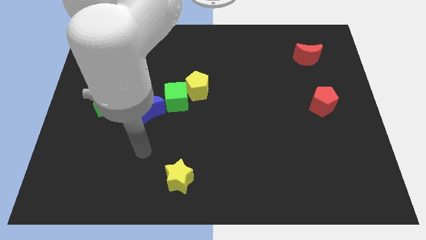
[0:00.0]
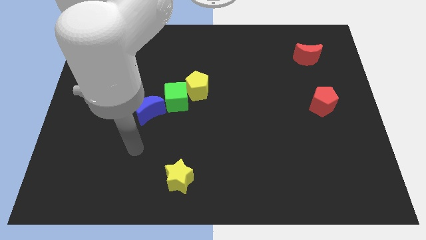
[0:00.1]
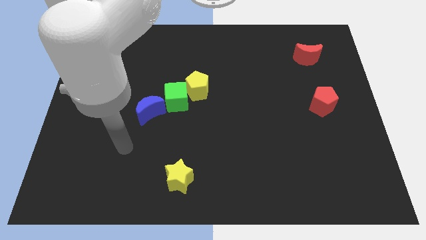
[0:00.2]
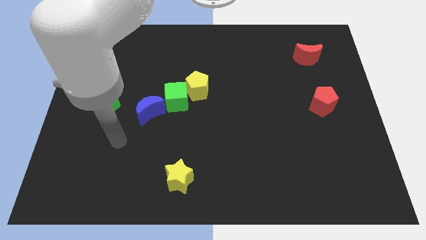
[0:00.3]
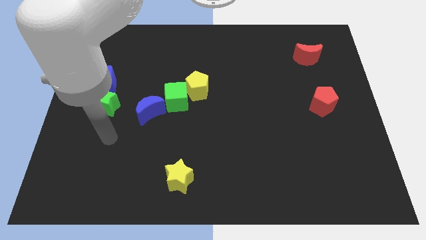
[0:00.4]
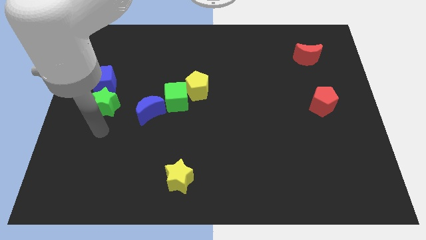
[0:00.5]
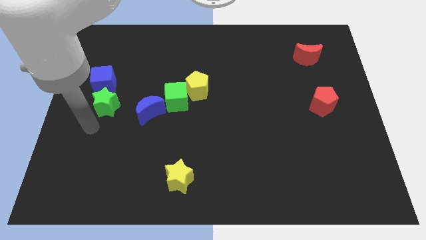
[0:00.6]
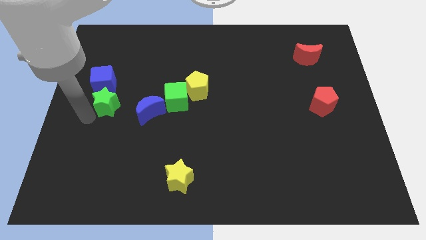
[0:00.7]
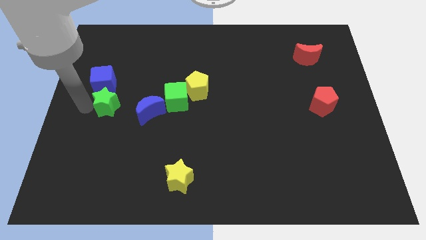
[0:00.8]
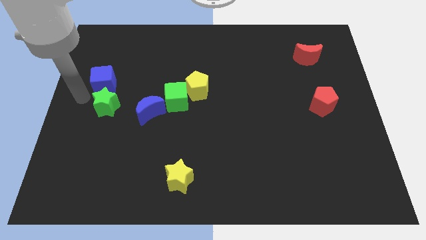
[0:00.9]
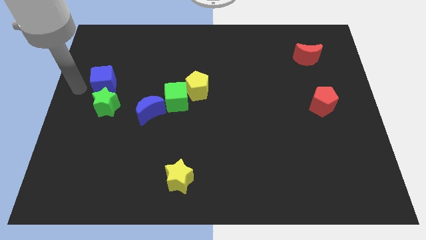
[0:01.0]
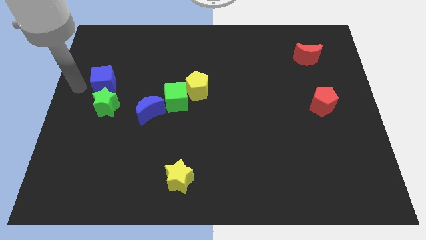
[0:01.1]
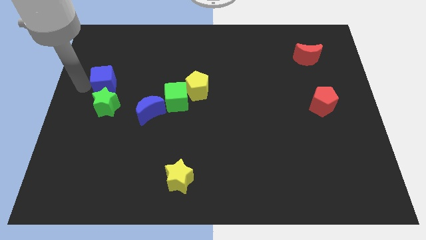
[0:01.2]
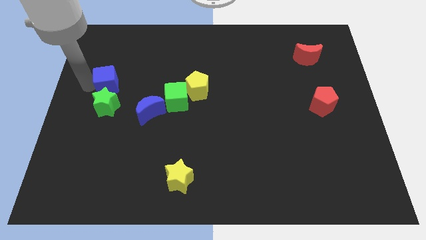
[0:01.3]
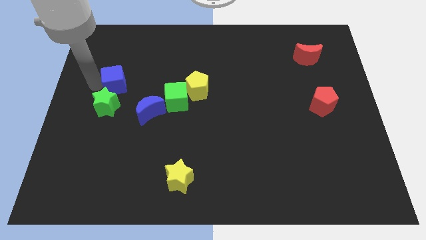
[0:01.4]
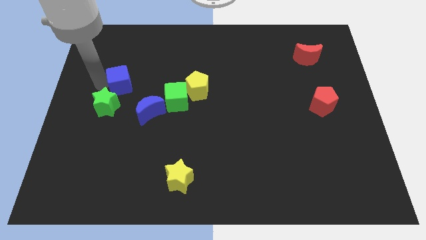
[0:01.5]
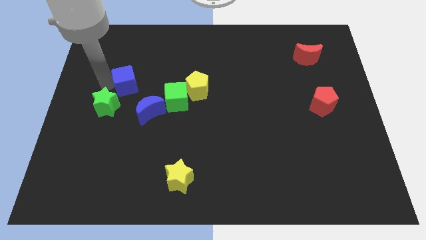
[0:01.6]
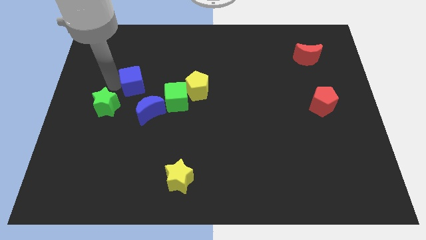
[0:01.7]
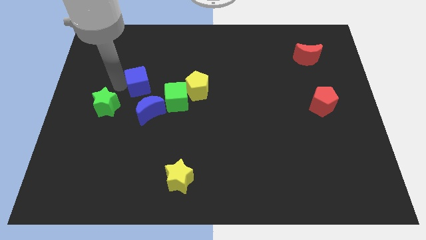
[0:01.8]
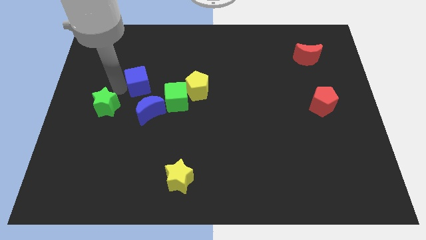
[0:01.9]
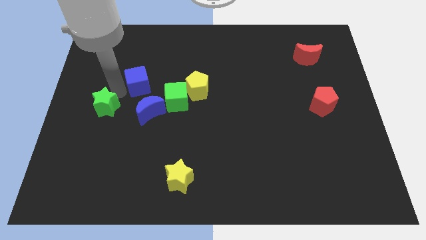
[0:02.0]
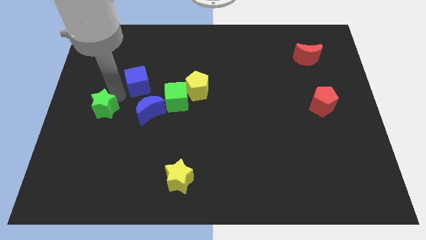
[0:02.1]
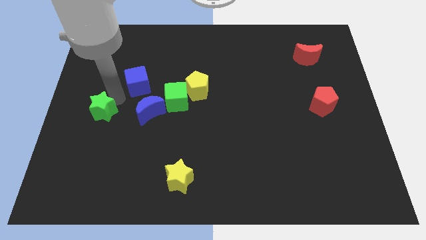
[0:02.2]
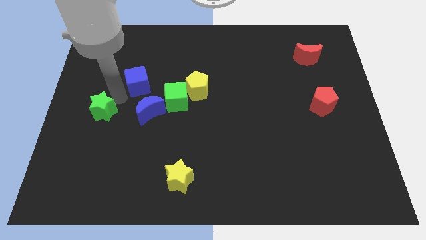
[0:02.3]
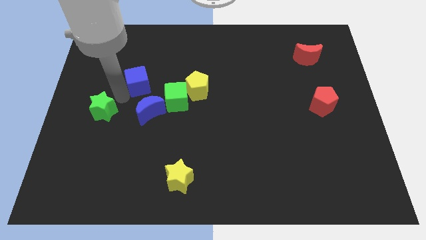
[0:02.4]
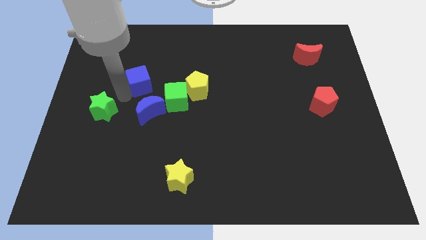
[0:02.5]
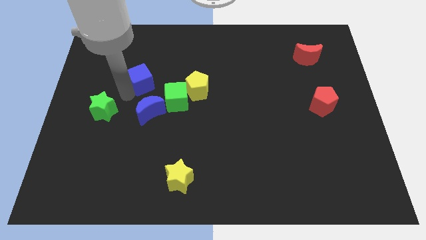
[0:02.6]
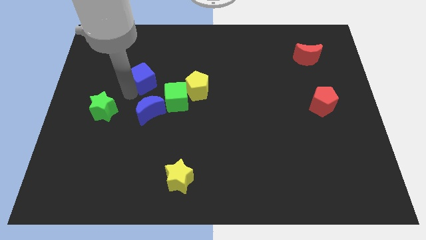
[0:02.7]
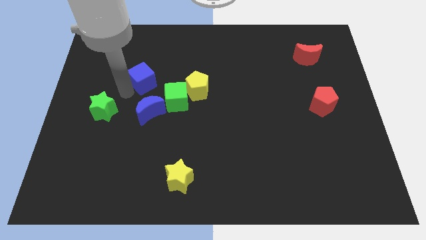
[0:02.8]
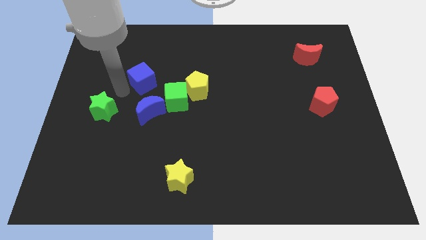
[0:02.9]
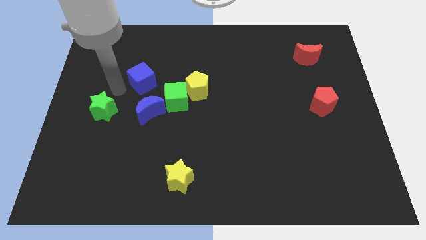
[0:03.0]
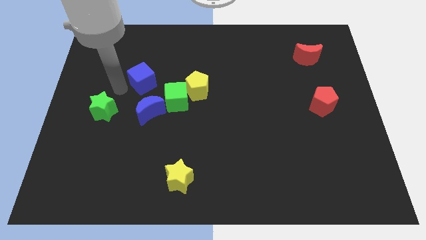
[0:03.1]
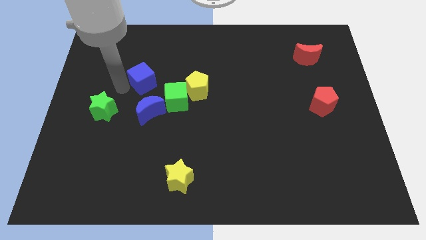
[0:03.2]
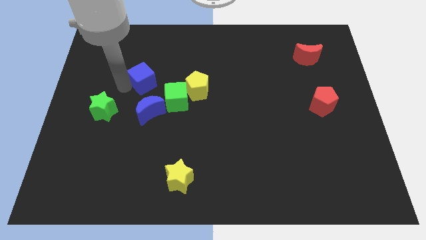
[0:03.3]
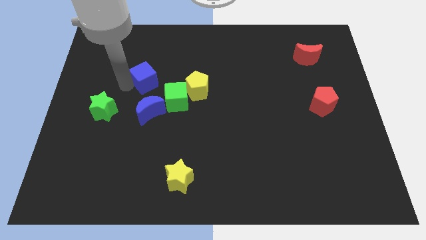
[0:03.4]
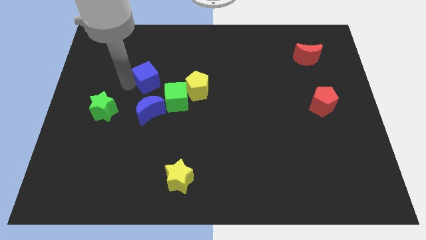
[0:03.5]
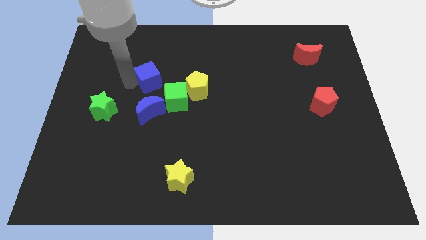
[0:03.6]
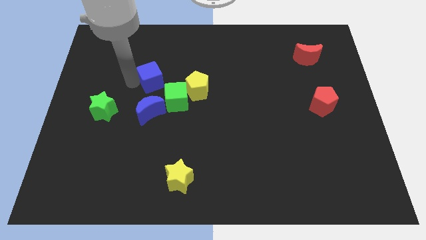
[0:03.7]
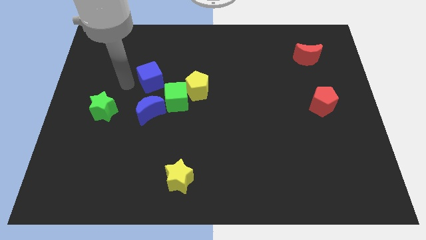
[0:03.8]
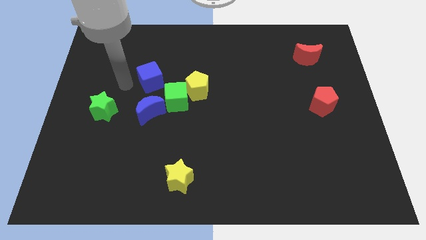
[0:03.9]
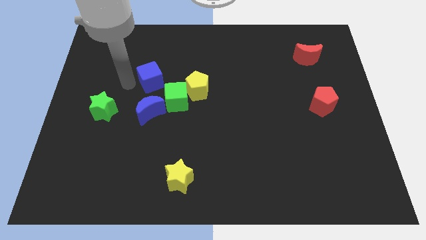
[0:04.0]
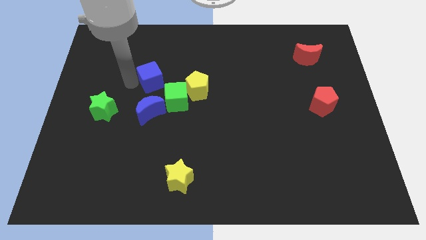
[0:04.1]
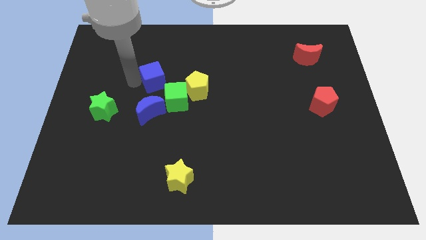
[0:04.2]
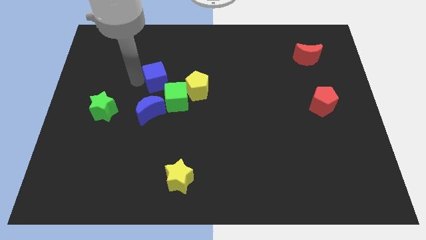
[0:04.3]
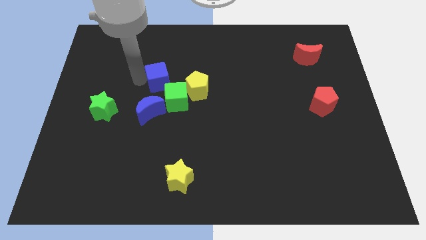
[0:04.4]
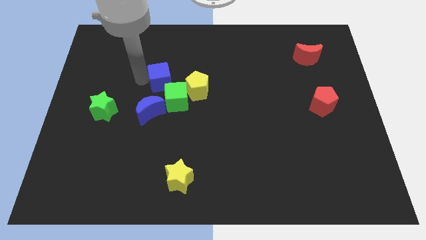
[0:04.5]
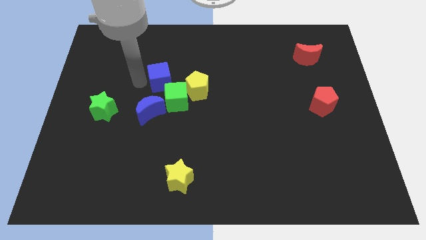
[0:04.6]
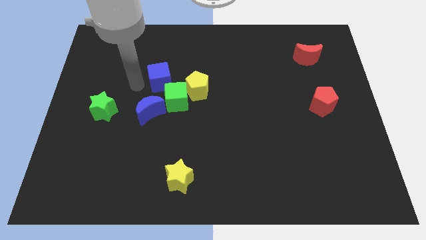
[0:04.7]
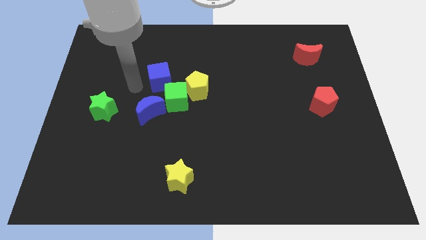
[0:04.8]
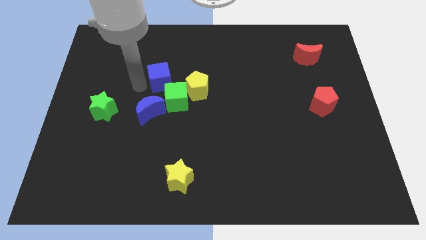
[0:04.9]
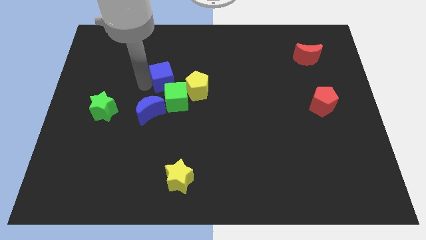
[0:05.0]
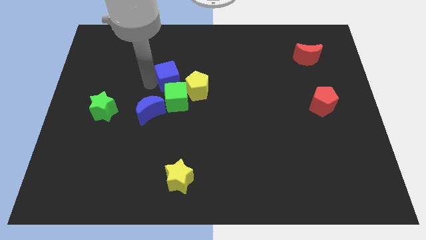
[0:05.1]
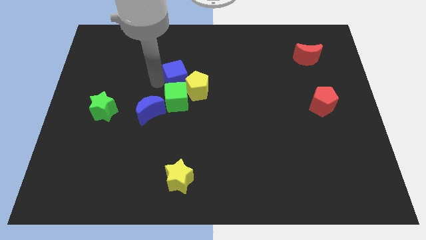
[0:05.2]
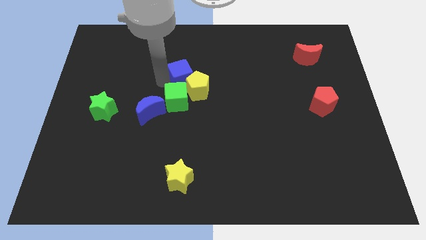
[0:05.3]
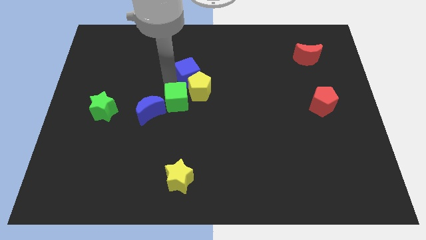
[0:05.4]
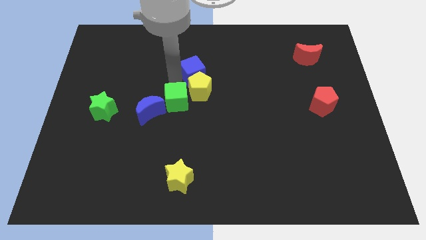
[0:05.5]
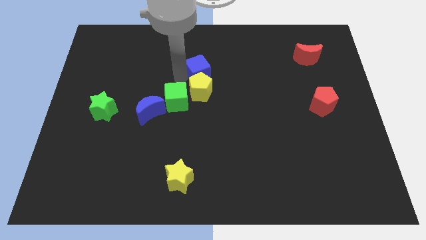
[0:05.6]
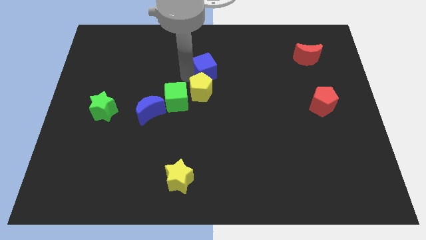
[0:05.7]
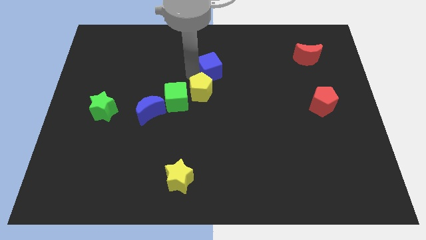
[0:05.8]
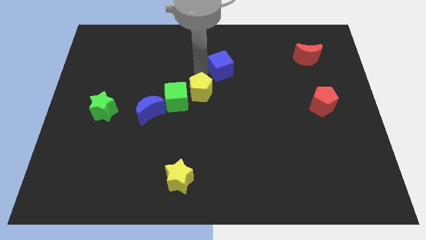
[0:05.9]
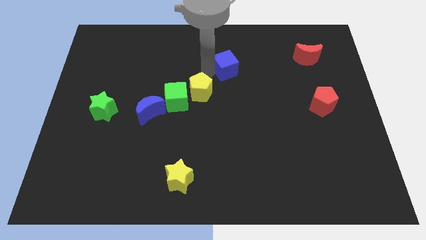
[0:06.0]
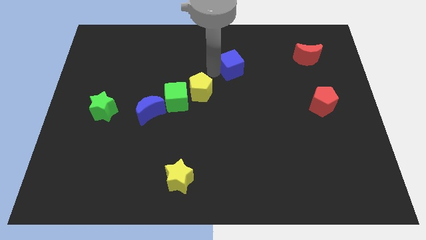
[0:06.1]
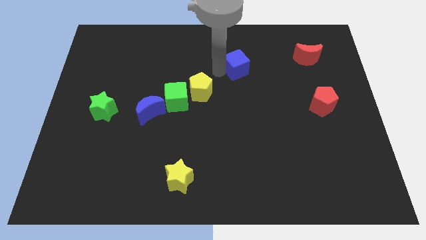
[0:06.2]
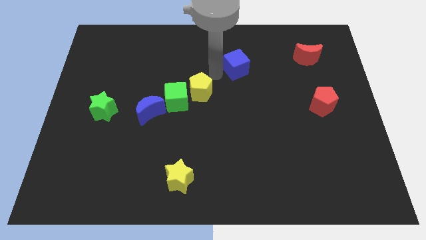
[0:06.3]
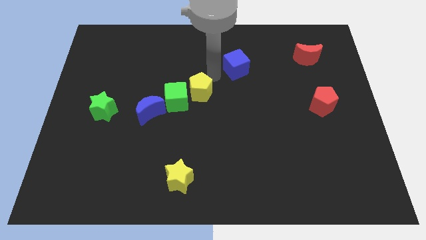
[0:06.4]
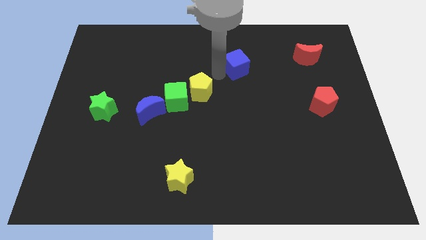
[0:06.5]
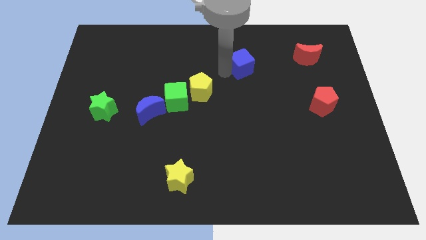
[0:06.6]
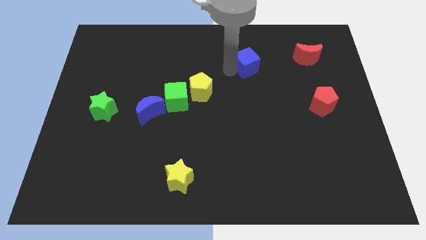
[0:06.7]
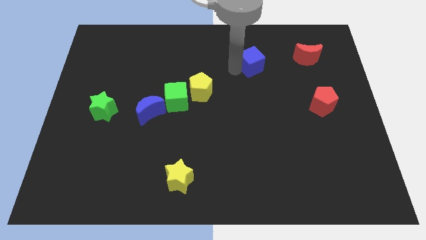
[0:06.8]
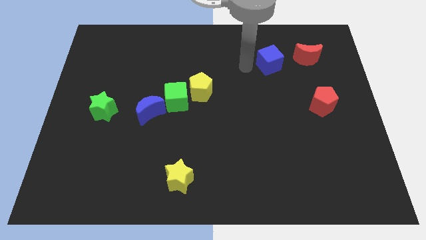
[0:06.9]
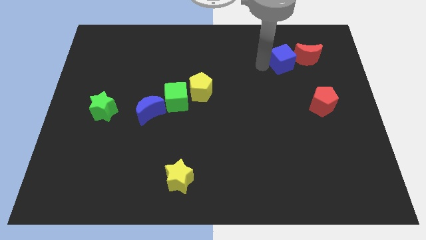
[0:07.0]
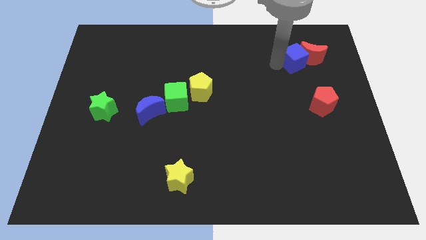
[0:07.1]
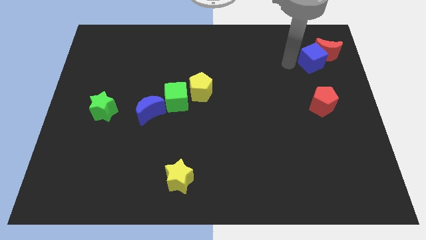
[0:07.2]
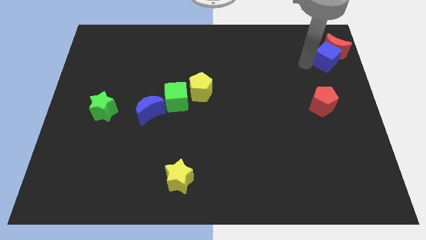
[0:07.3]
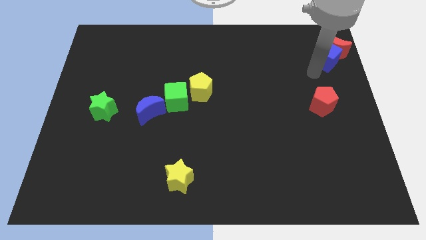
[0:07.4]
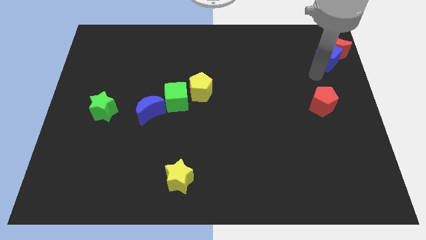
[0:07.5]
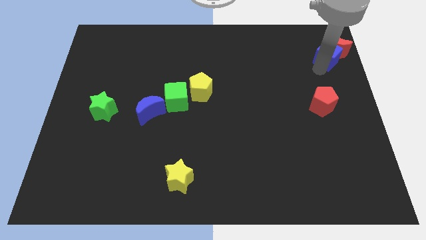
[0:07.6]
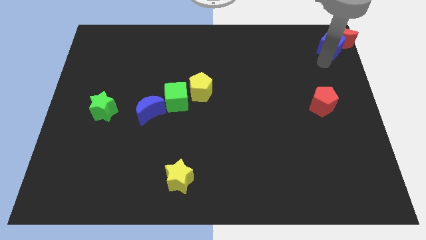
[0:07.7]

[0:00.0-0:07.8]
slide the blue cube to the upper right corner
